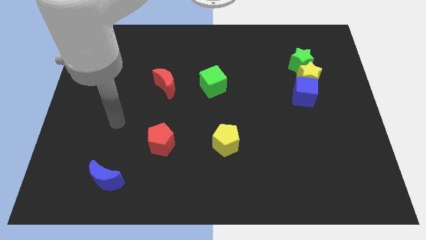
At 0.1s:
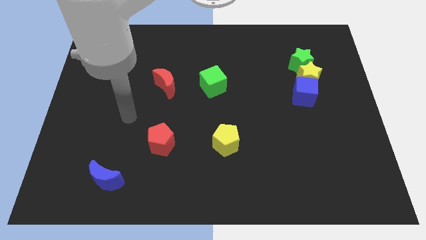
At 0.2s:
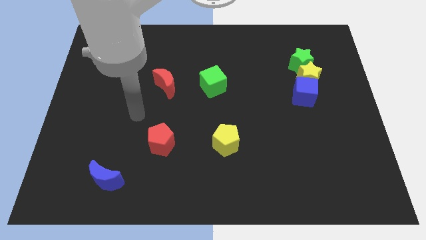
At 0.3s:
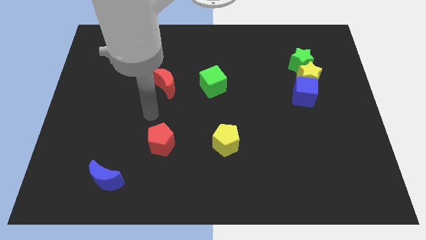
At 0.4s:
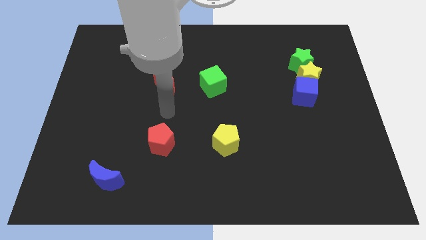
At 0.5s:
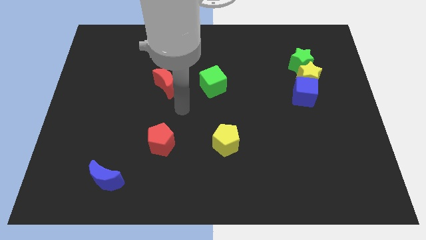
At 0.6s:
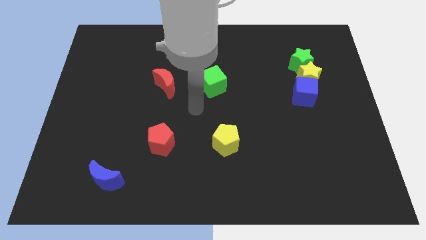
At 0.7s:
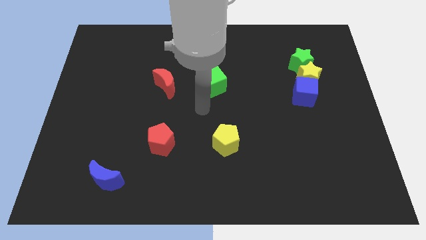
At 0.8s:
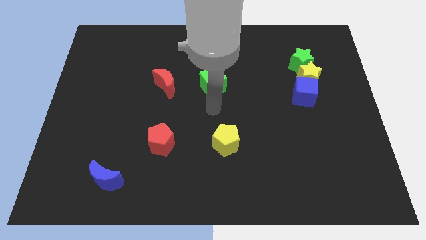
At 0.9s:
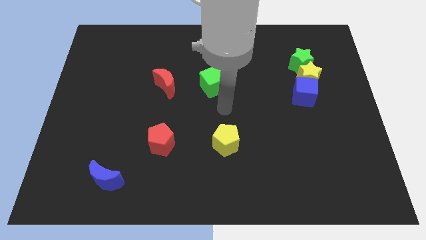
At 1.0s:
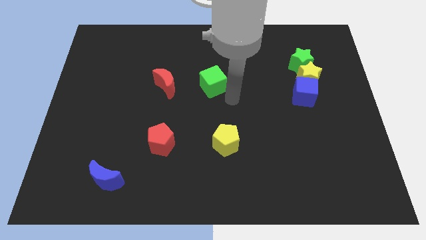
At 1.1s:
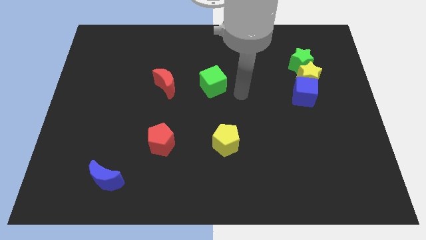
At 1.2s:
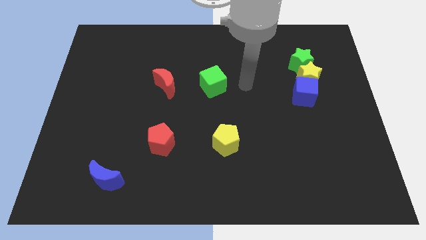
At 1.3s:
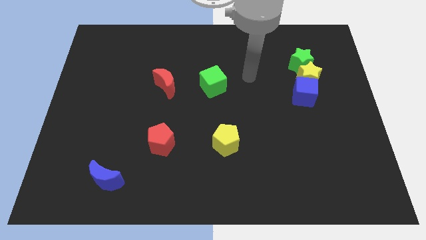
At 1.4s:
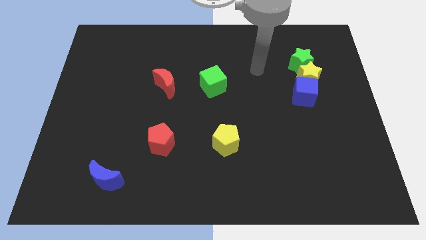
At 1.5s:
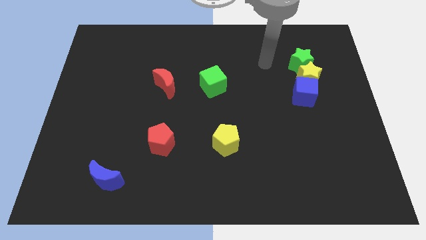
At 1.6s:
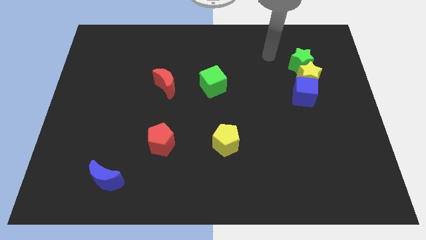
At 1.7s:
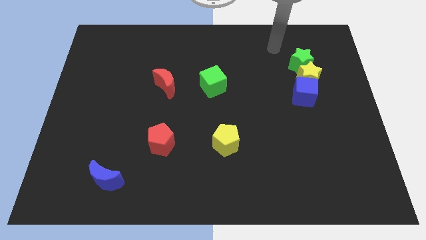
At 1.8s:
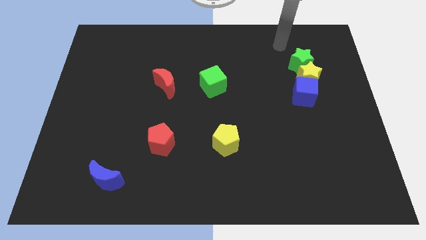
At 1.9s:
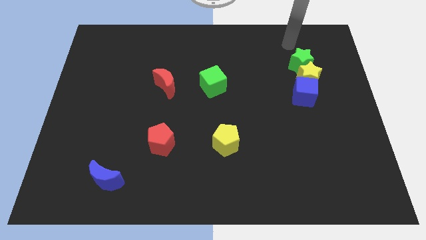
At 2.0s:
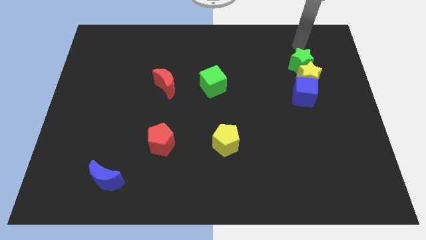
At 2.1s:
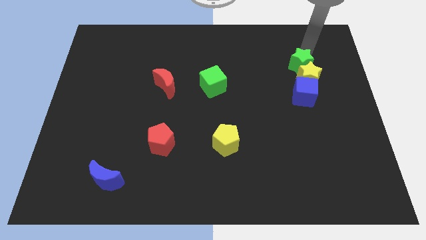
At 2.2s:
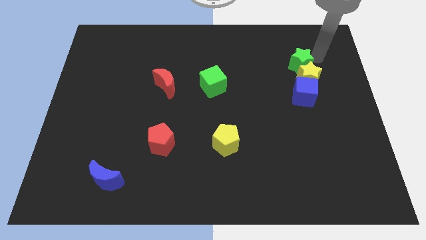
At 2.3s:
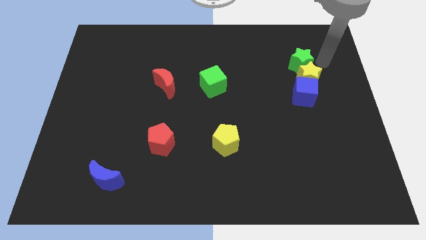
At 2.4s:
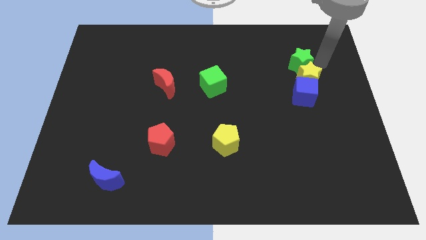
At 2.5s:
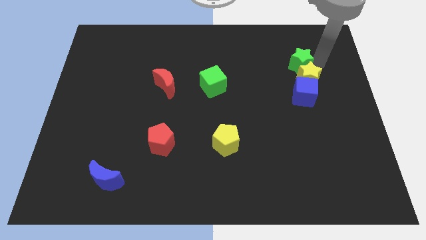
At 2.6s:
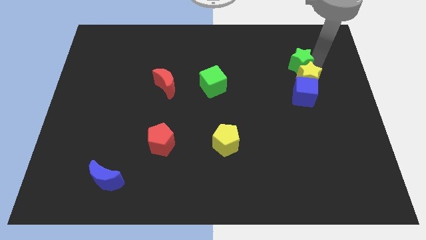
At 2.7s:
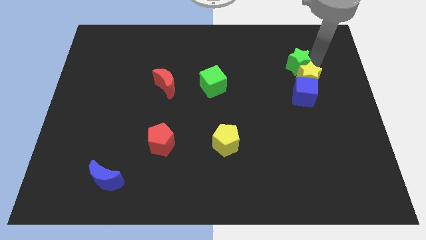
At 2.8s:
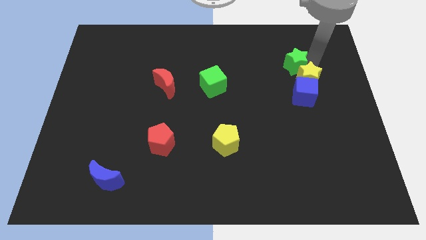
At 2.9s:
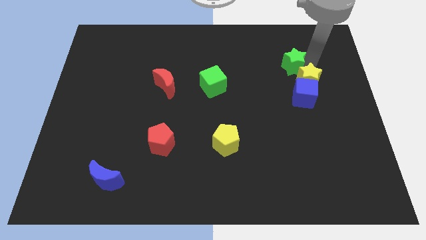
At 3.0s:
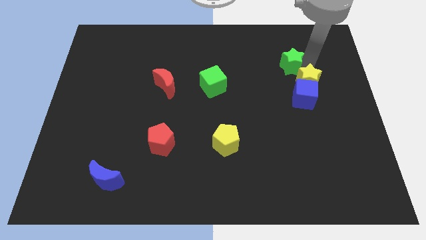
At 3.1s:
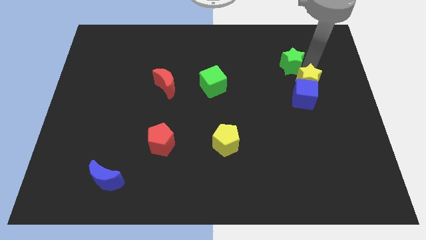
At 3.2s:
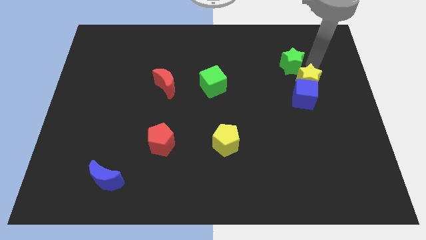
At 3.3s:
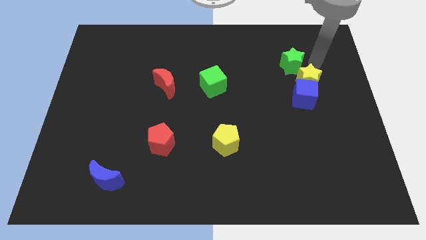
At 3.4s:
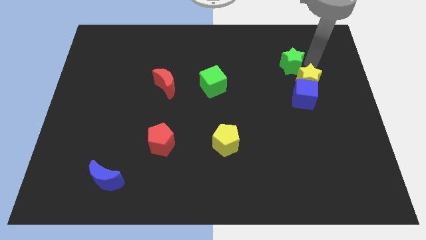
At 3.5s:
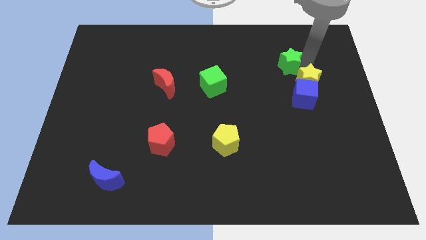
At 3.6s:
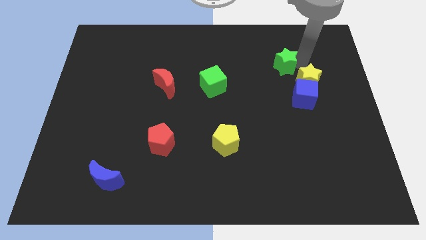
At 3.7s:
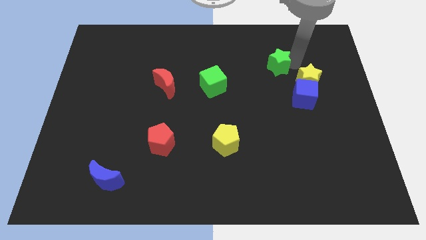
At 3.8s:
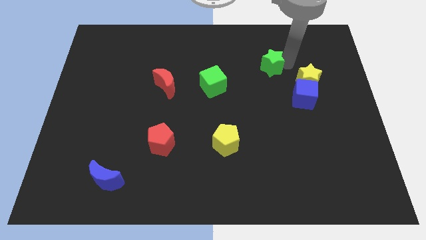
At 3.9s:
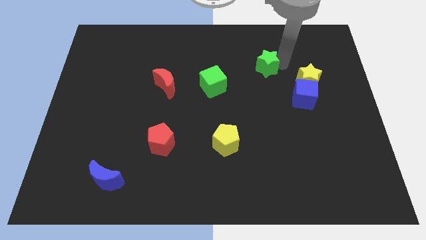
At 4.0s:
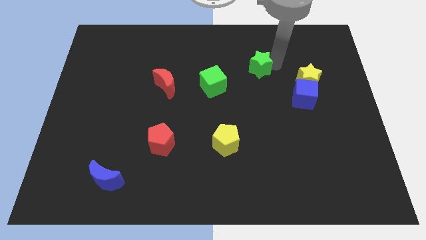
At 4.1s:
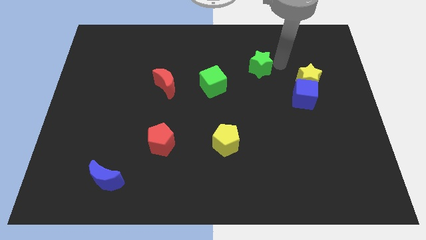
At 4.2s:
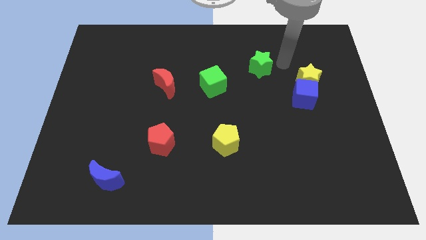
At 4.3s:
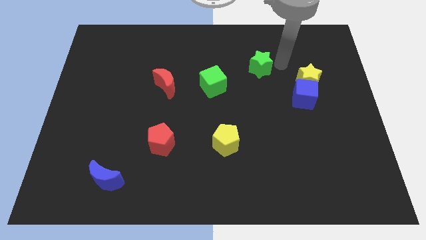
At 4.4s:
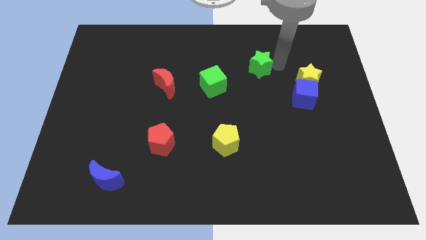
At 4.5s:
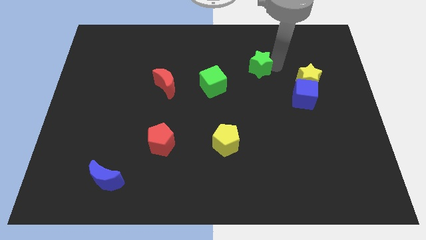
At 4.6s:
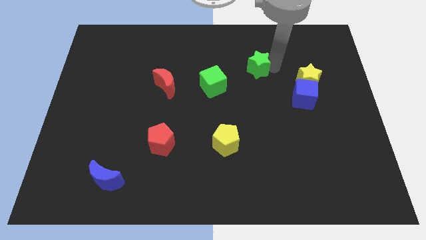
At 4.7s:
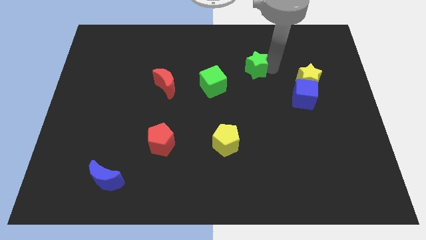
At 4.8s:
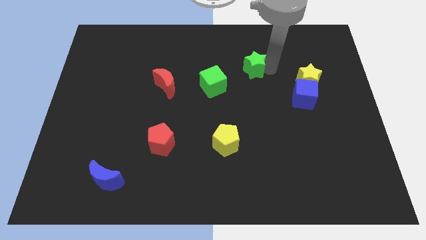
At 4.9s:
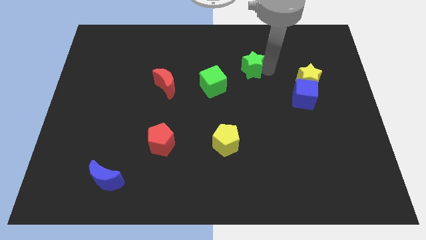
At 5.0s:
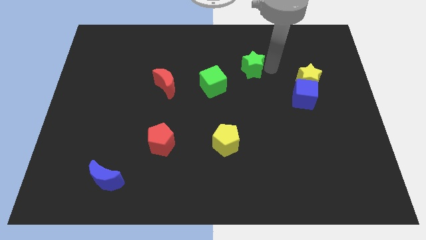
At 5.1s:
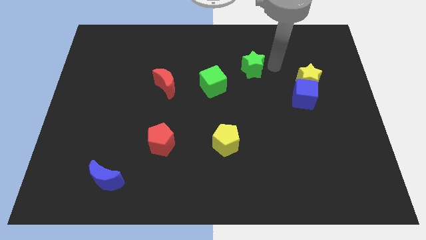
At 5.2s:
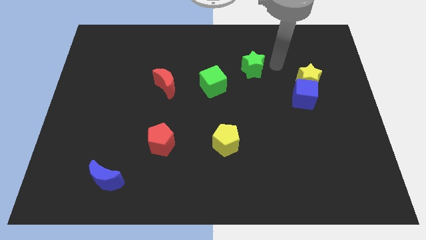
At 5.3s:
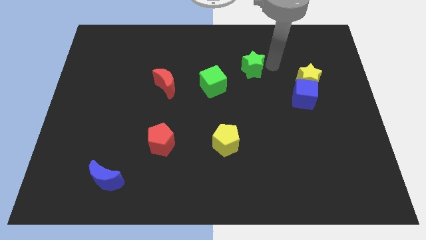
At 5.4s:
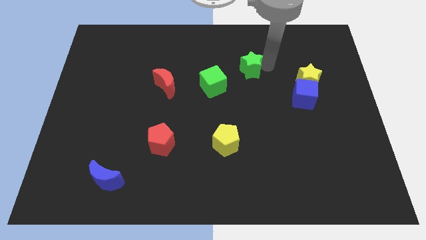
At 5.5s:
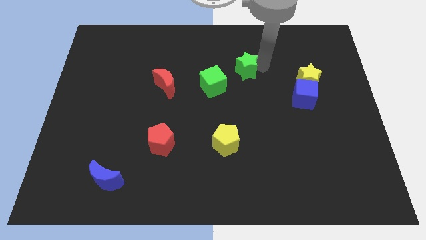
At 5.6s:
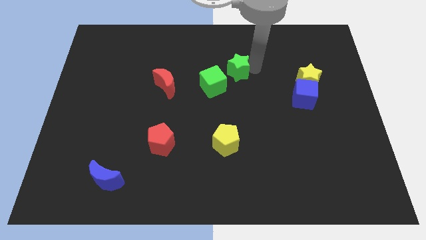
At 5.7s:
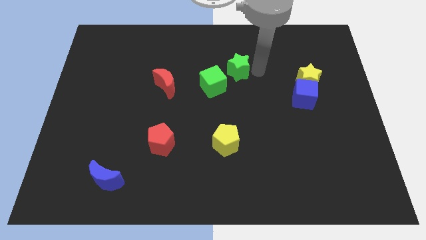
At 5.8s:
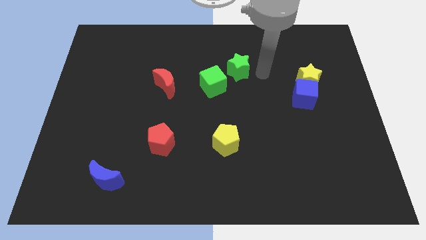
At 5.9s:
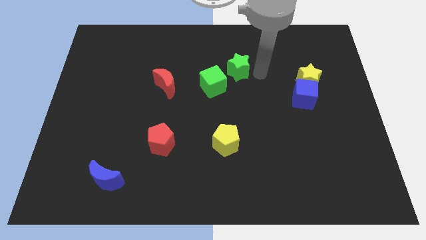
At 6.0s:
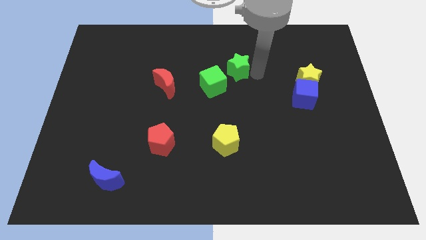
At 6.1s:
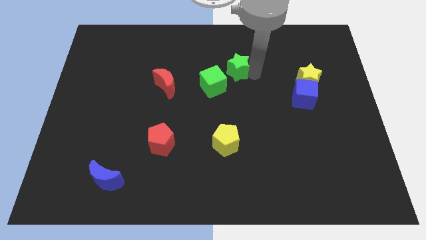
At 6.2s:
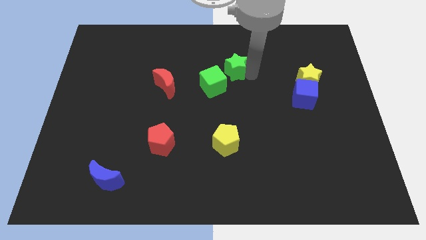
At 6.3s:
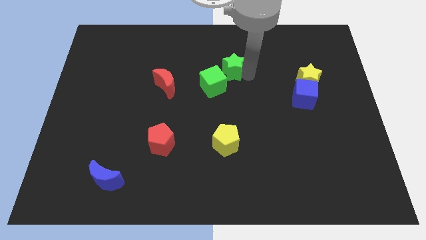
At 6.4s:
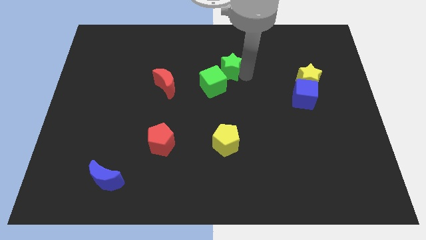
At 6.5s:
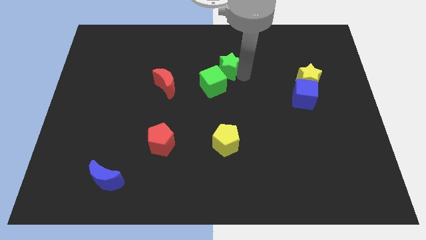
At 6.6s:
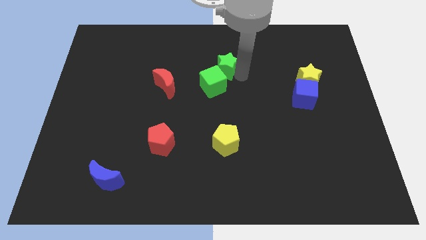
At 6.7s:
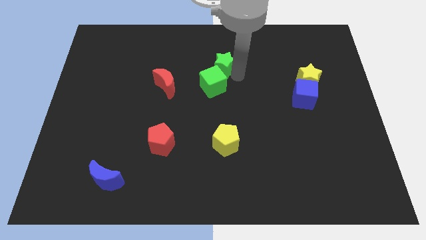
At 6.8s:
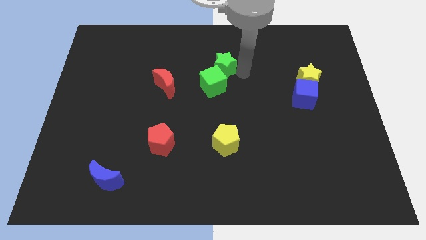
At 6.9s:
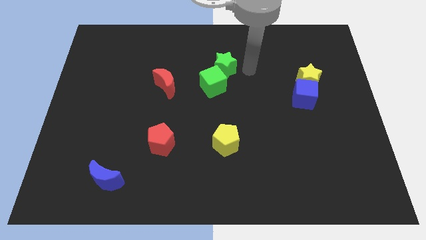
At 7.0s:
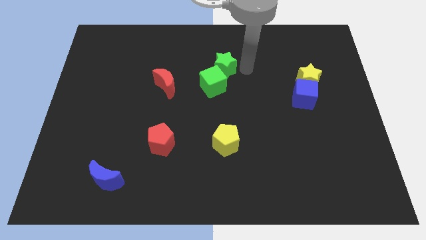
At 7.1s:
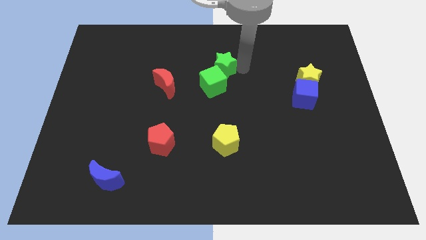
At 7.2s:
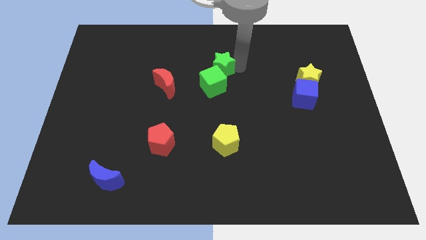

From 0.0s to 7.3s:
move the green star left

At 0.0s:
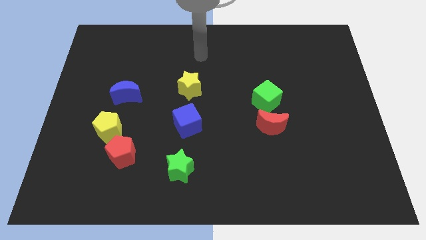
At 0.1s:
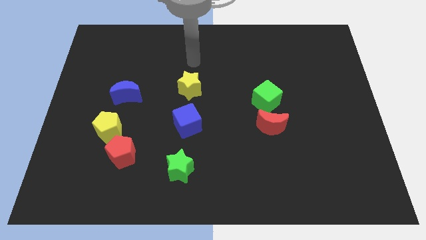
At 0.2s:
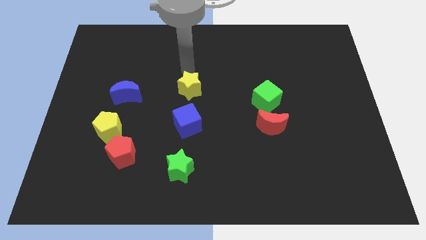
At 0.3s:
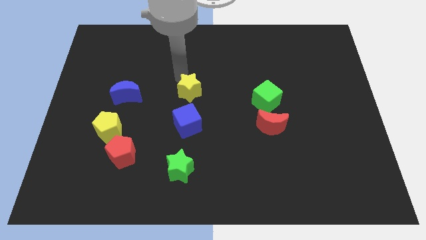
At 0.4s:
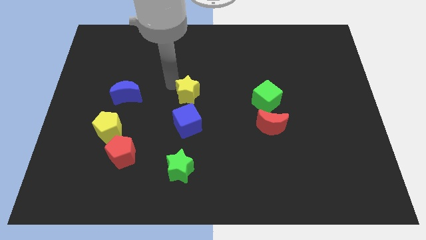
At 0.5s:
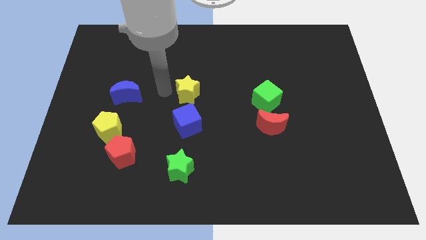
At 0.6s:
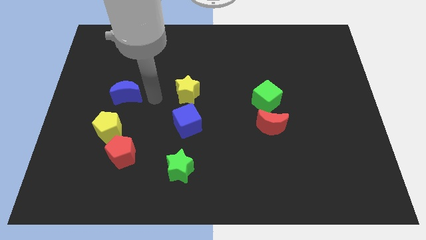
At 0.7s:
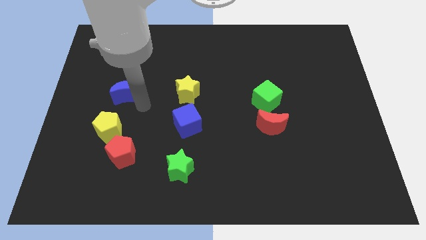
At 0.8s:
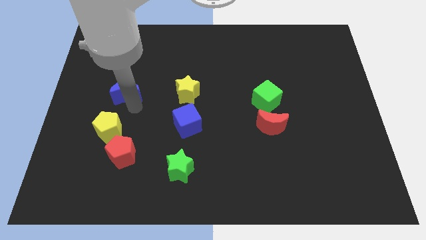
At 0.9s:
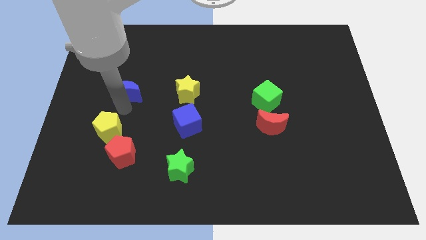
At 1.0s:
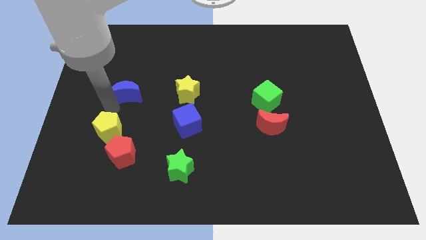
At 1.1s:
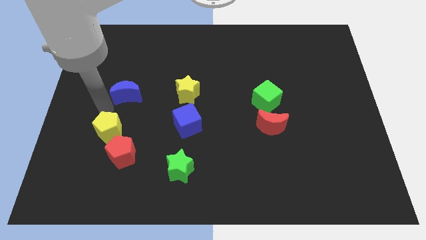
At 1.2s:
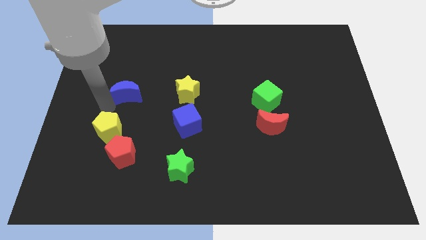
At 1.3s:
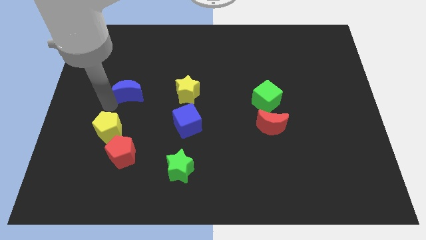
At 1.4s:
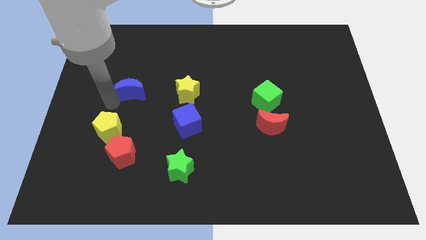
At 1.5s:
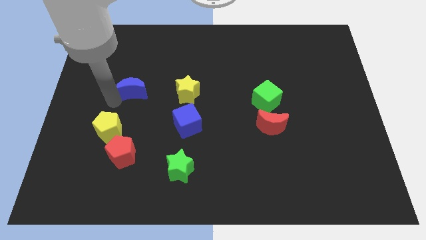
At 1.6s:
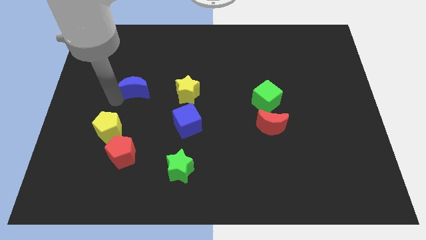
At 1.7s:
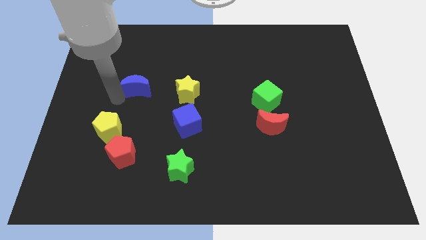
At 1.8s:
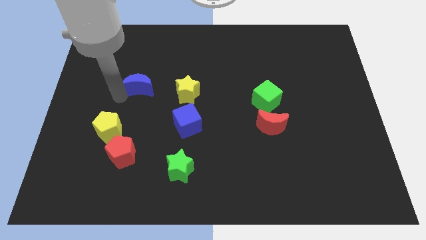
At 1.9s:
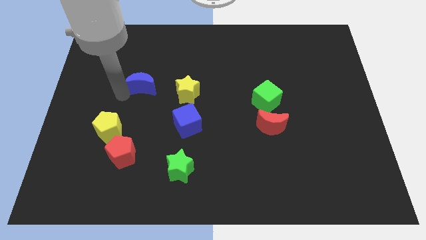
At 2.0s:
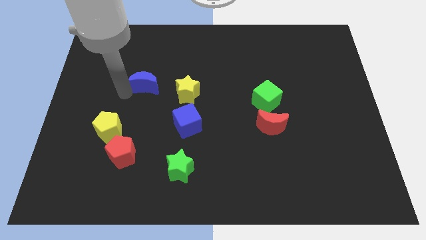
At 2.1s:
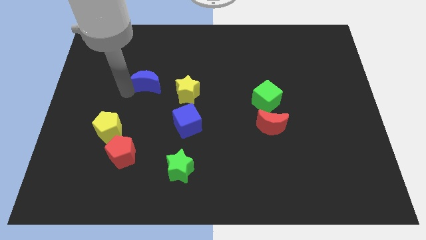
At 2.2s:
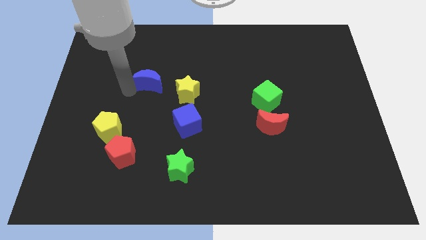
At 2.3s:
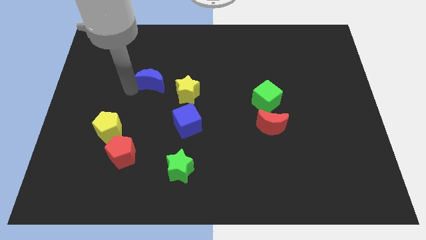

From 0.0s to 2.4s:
slide the blue moon a little bit upwards and to the right
